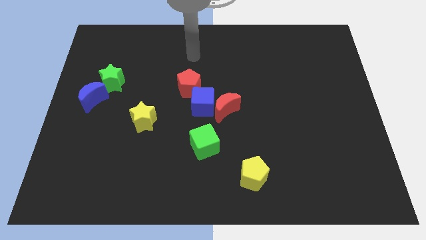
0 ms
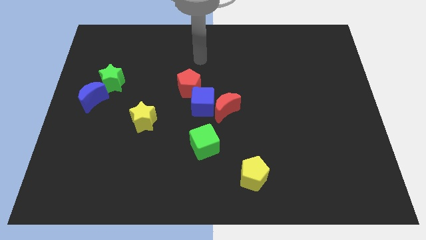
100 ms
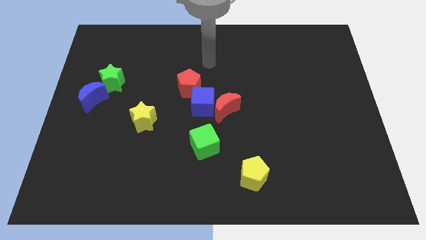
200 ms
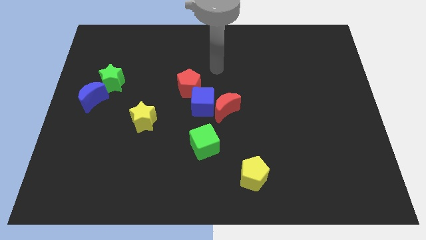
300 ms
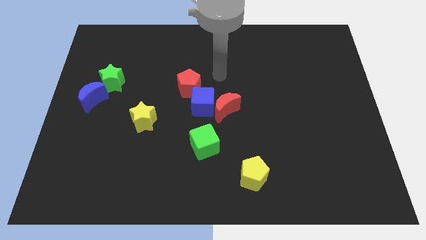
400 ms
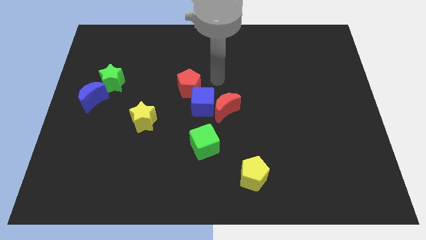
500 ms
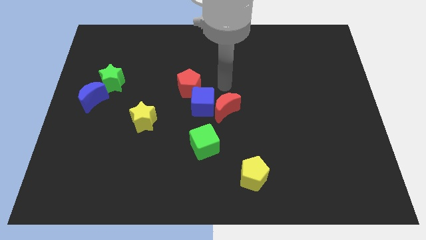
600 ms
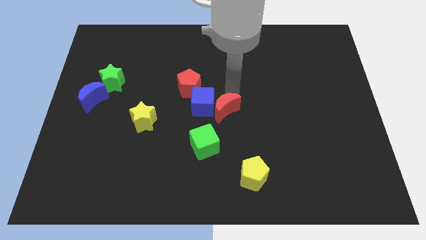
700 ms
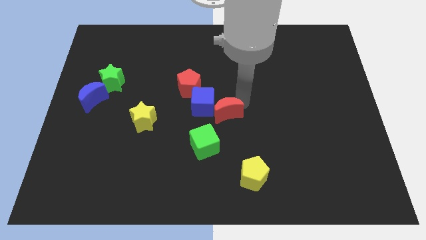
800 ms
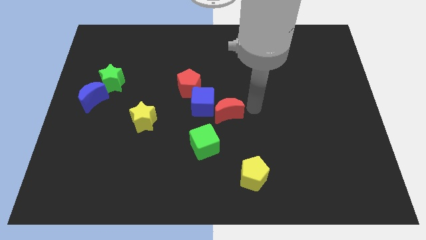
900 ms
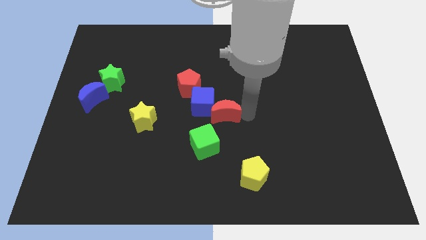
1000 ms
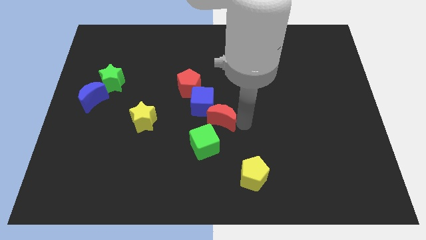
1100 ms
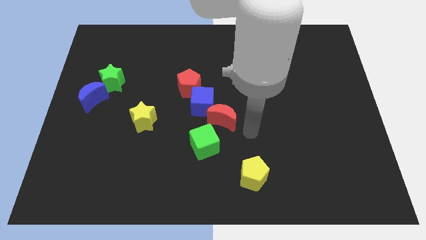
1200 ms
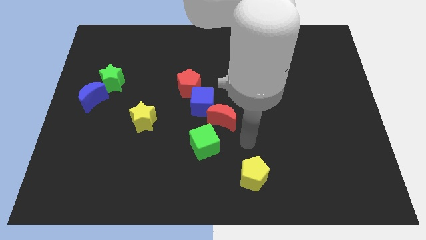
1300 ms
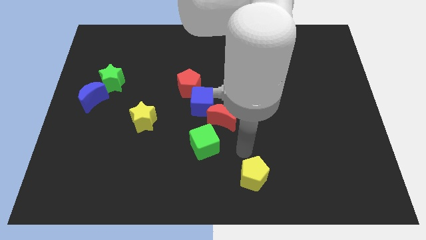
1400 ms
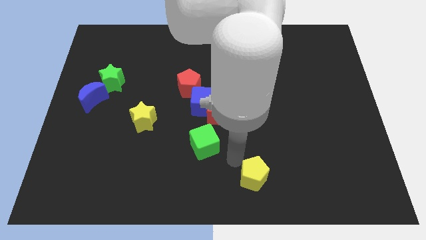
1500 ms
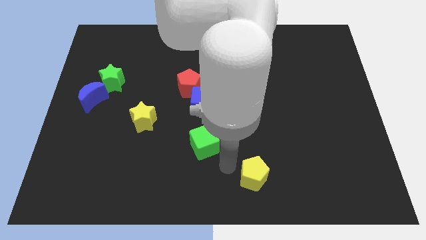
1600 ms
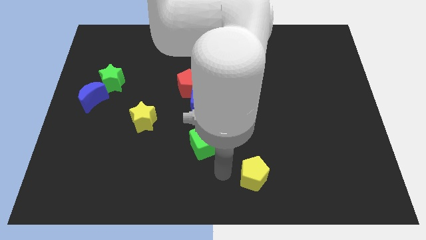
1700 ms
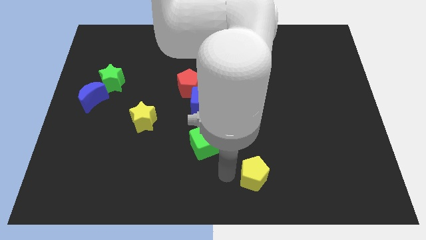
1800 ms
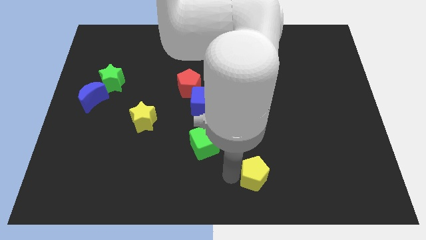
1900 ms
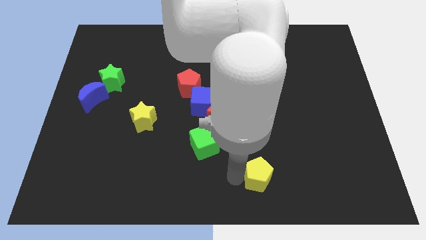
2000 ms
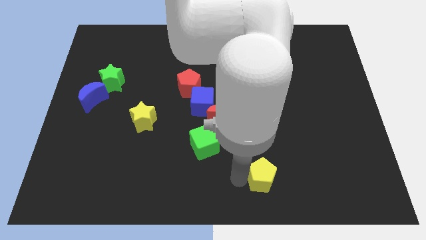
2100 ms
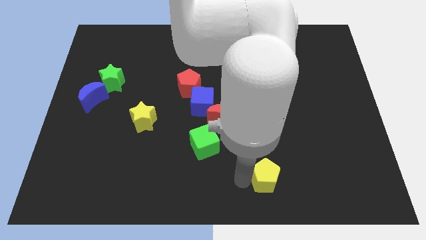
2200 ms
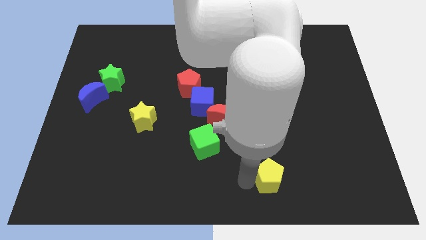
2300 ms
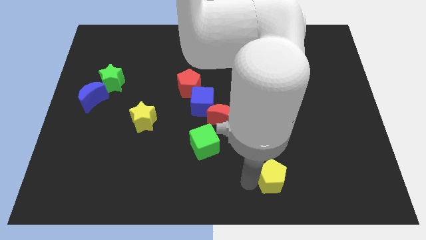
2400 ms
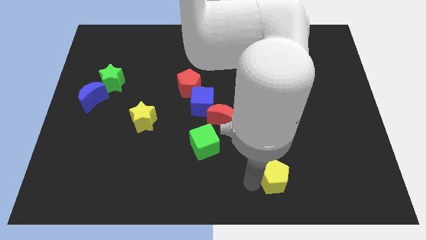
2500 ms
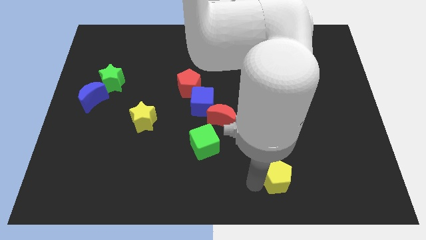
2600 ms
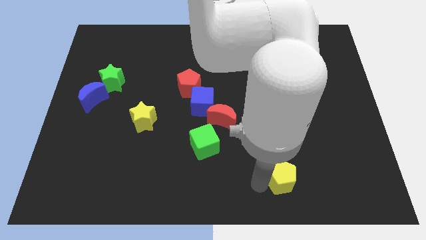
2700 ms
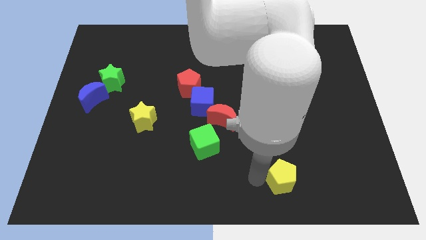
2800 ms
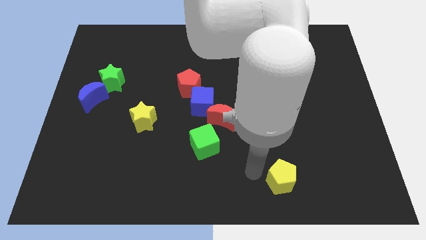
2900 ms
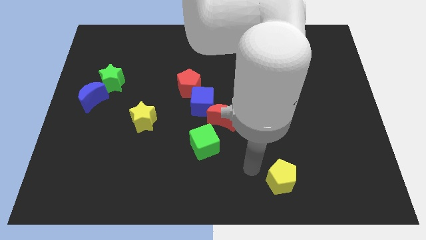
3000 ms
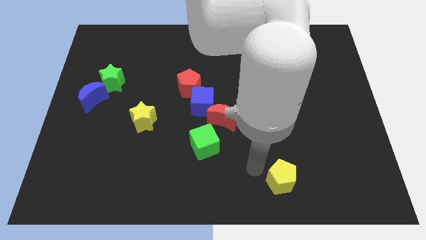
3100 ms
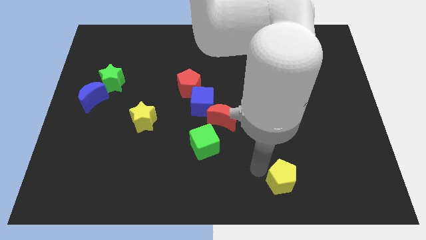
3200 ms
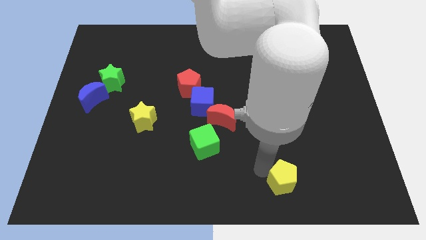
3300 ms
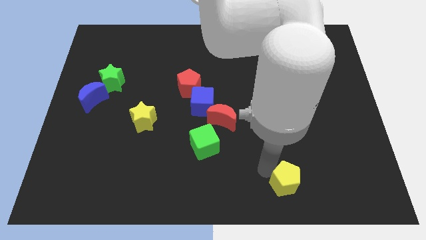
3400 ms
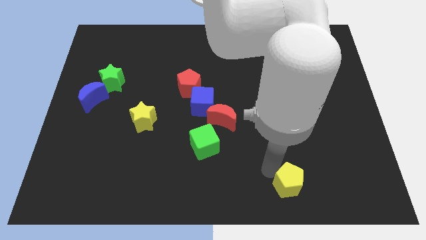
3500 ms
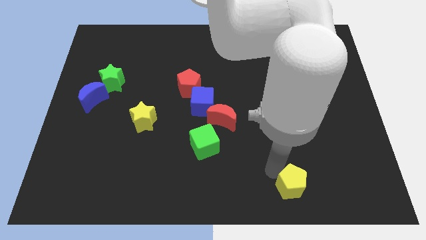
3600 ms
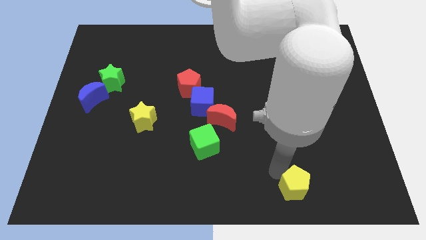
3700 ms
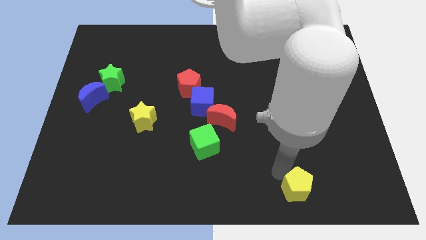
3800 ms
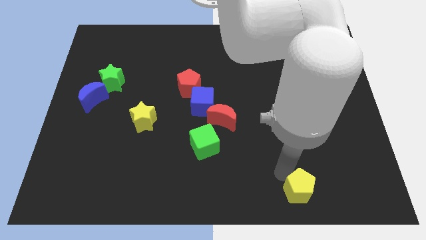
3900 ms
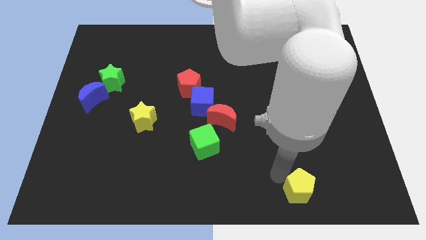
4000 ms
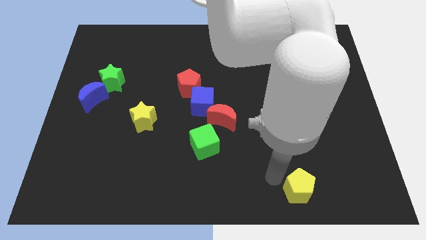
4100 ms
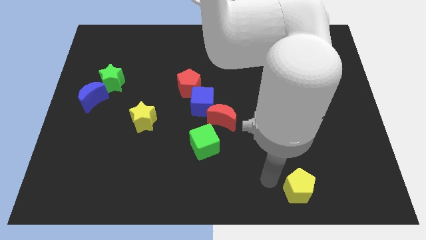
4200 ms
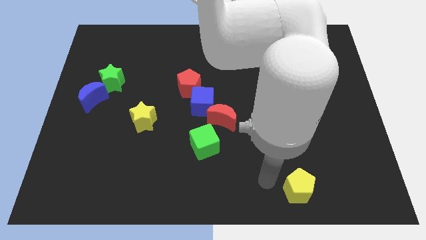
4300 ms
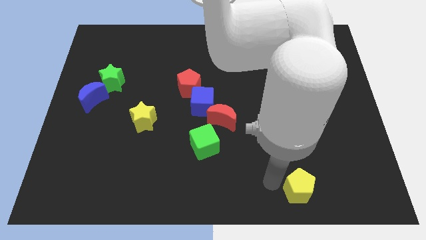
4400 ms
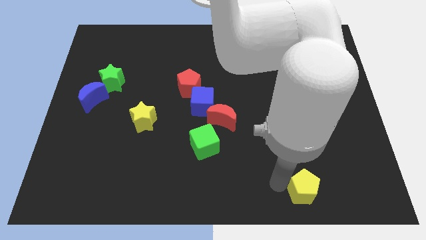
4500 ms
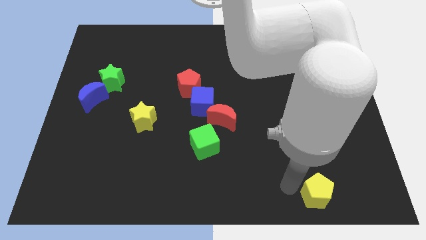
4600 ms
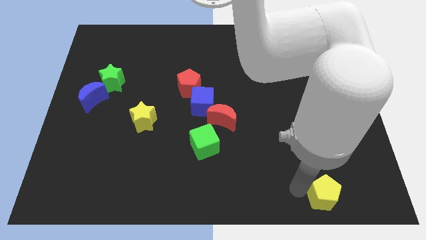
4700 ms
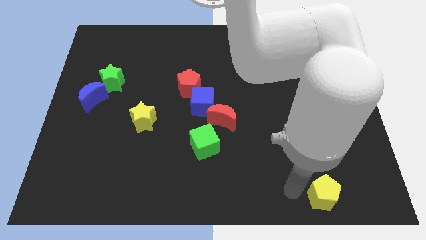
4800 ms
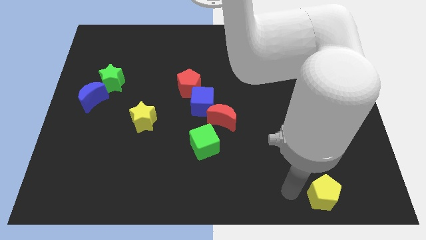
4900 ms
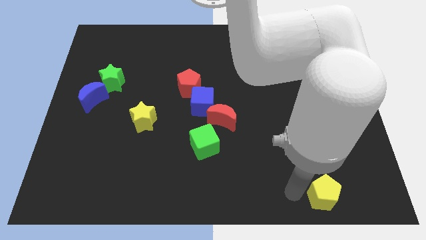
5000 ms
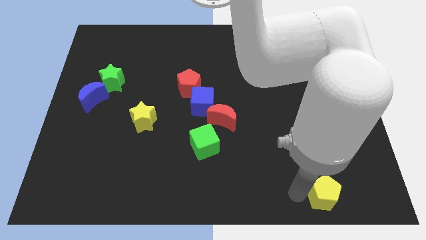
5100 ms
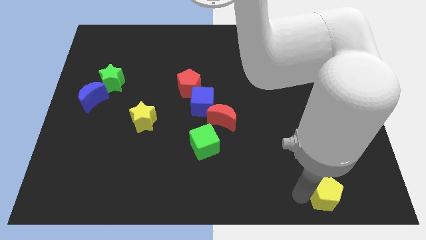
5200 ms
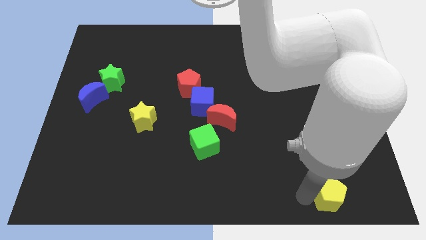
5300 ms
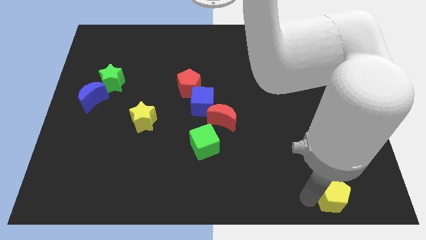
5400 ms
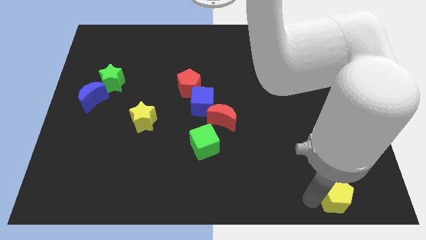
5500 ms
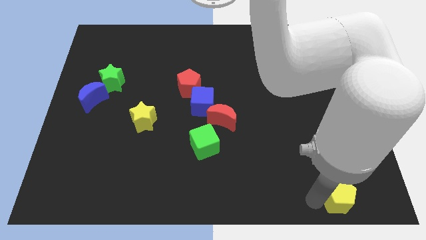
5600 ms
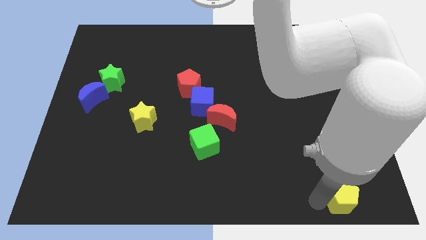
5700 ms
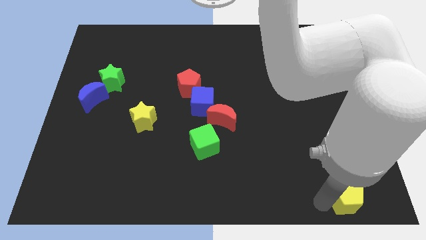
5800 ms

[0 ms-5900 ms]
move the yellow pentagon to the bottom right of the board
